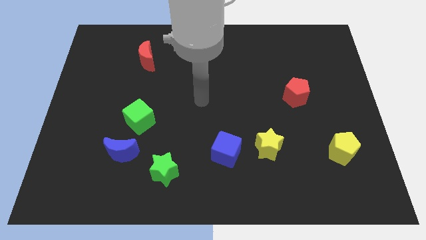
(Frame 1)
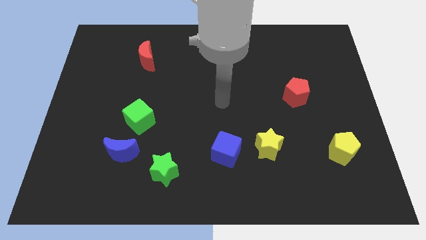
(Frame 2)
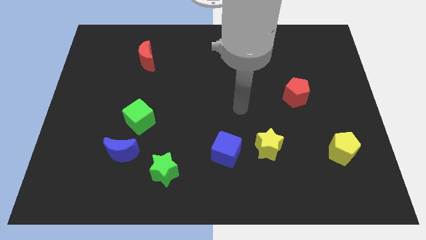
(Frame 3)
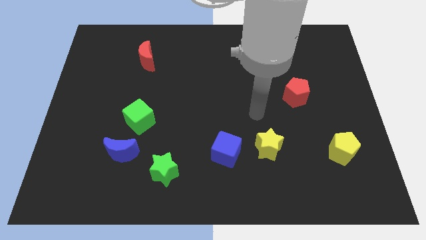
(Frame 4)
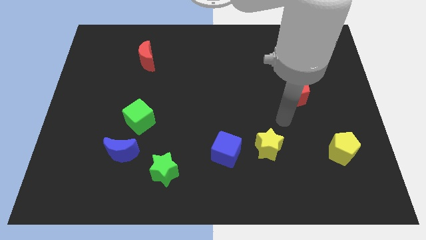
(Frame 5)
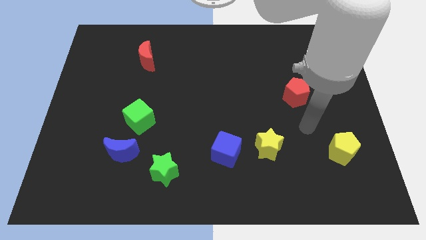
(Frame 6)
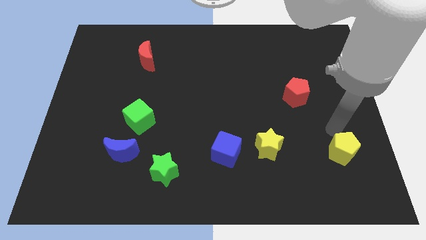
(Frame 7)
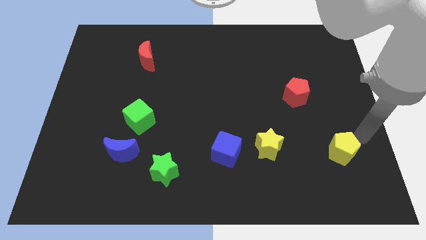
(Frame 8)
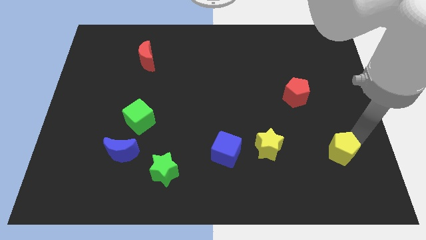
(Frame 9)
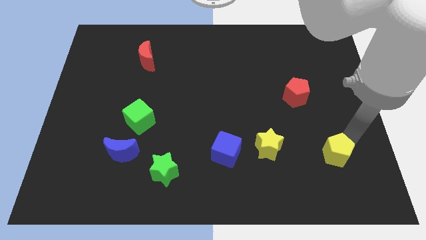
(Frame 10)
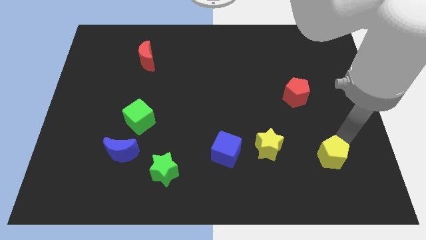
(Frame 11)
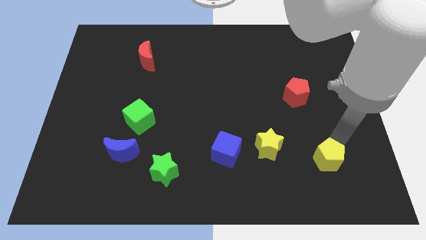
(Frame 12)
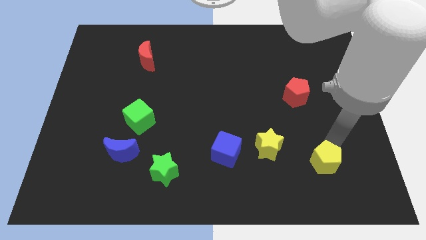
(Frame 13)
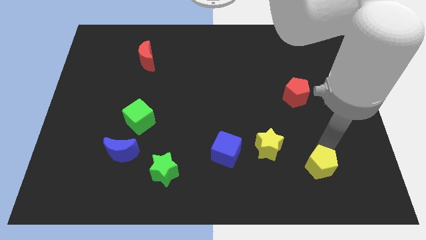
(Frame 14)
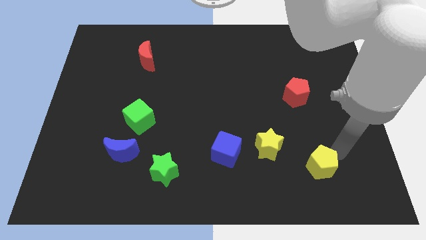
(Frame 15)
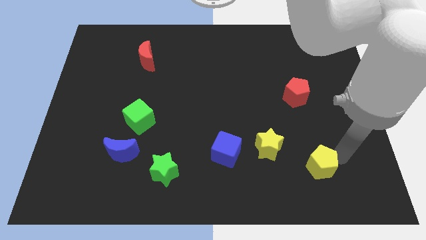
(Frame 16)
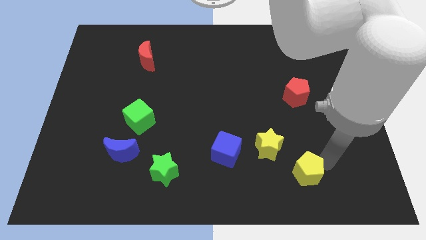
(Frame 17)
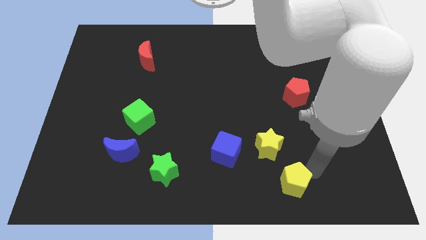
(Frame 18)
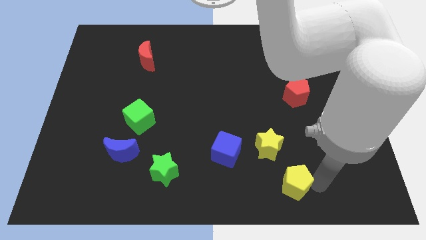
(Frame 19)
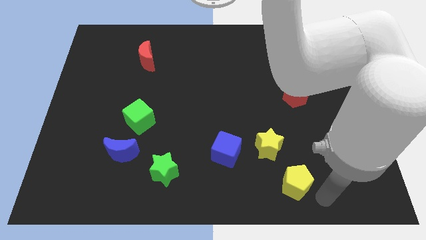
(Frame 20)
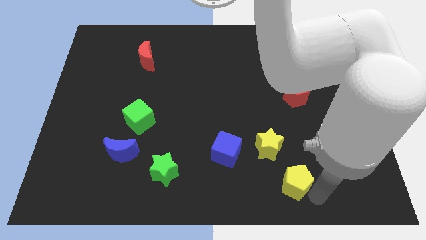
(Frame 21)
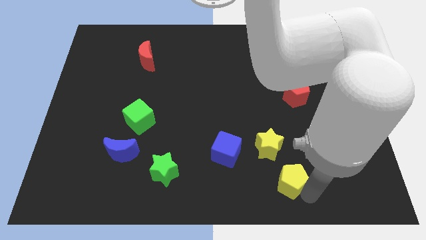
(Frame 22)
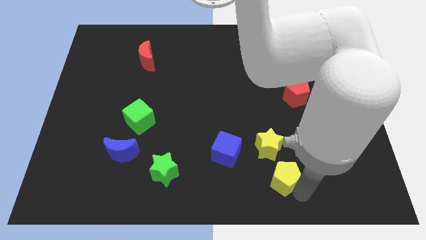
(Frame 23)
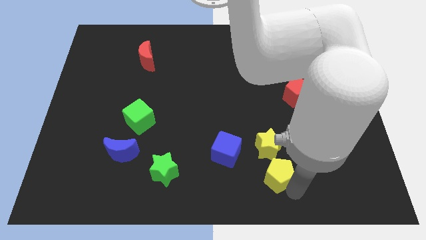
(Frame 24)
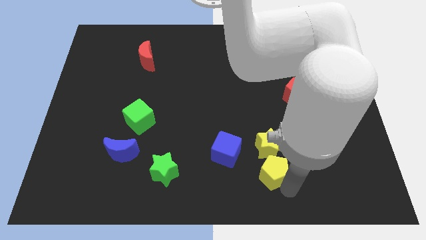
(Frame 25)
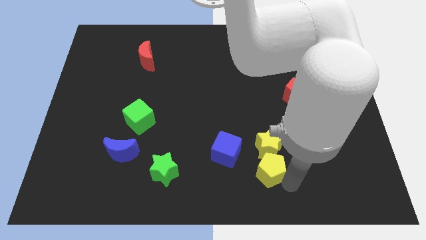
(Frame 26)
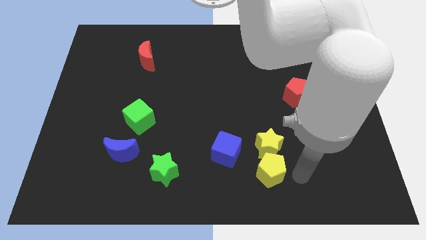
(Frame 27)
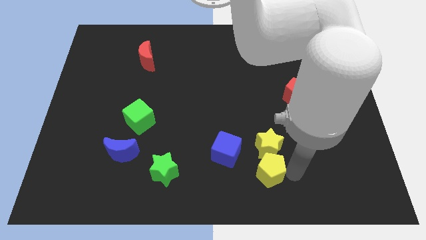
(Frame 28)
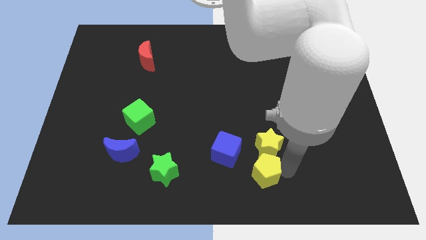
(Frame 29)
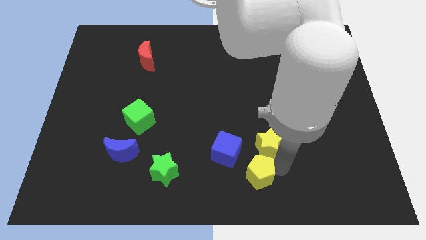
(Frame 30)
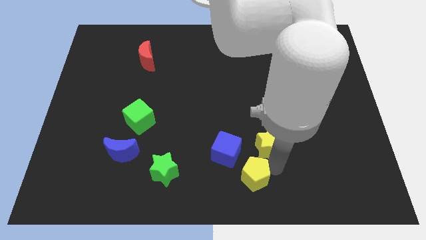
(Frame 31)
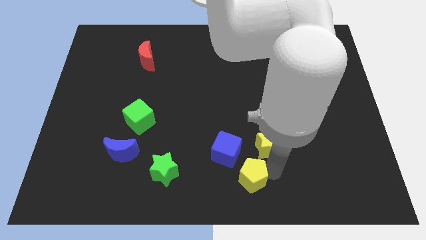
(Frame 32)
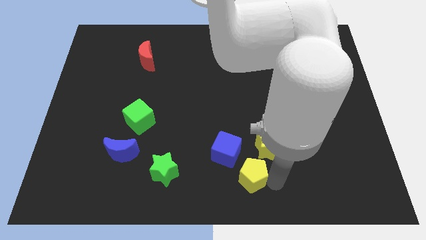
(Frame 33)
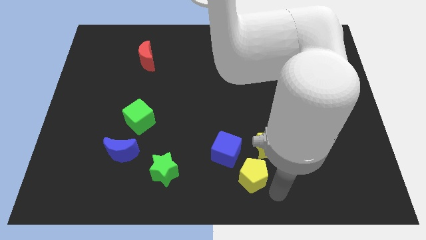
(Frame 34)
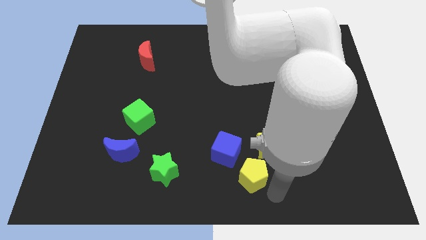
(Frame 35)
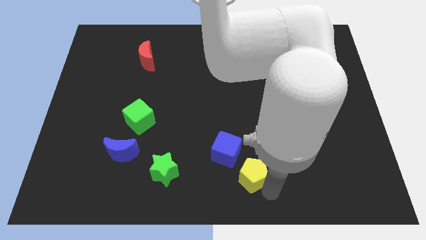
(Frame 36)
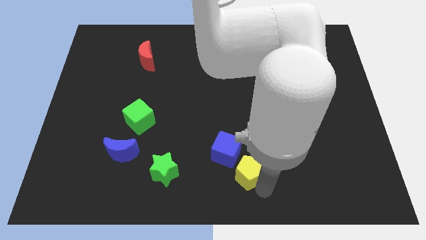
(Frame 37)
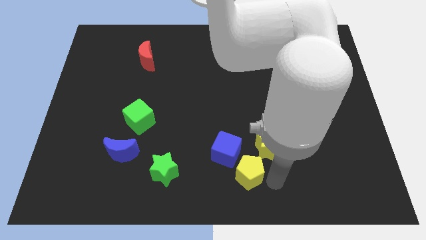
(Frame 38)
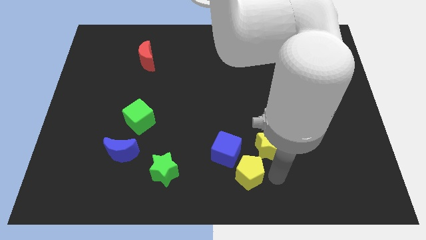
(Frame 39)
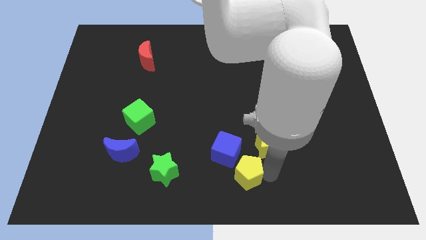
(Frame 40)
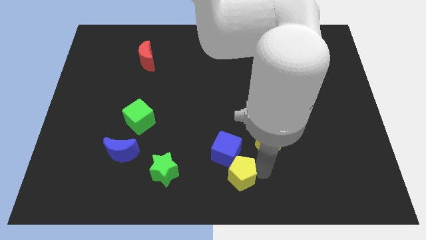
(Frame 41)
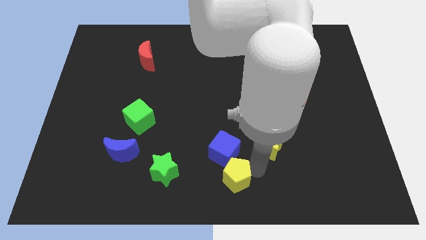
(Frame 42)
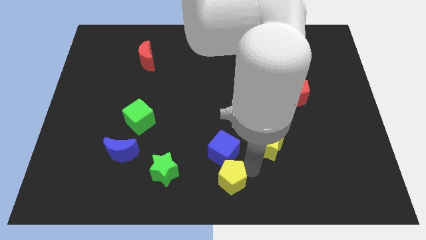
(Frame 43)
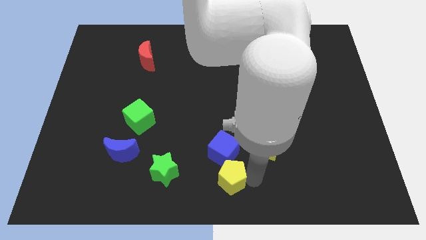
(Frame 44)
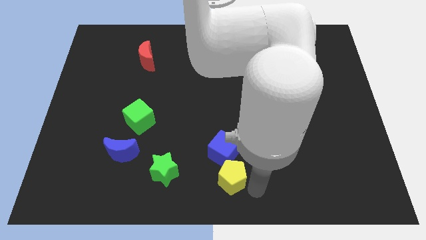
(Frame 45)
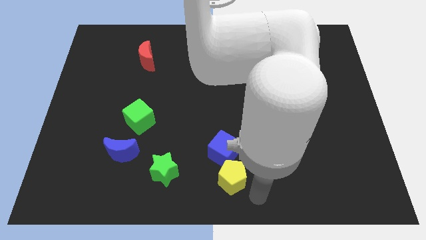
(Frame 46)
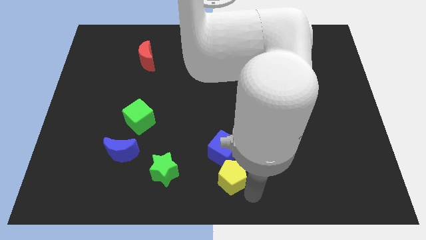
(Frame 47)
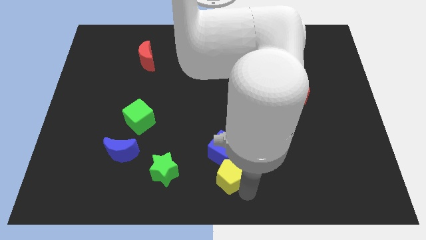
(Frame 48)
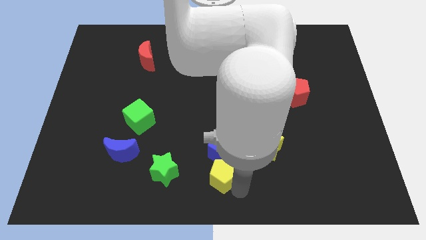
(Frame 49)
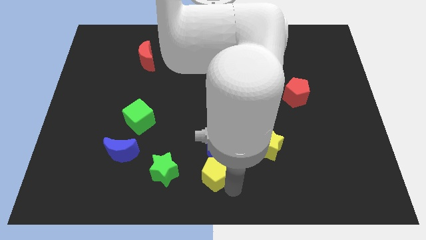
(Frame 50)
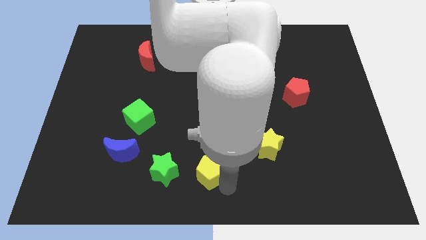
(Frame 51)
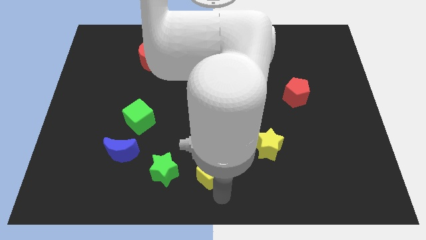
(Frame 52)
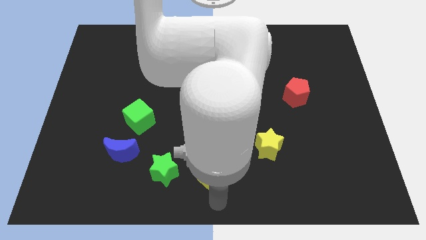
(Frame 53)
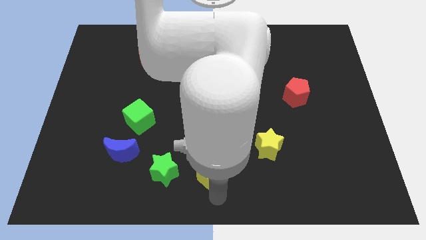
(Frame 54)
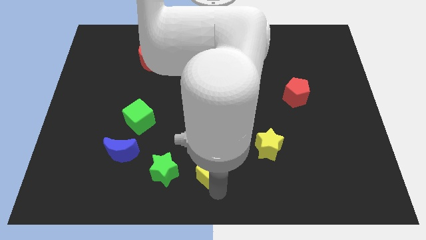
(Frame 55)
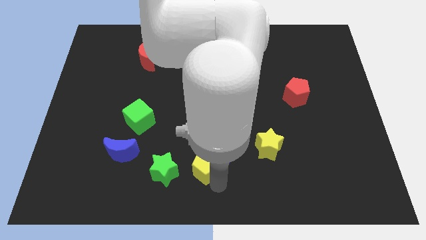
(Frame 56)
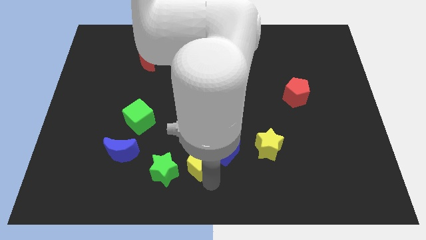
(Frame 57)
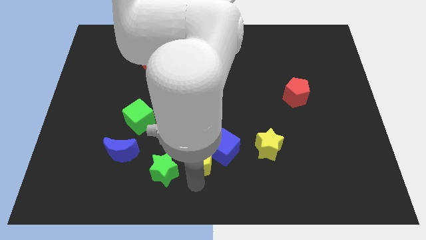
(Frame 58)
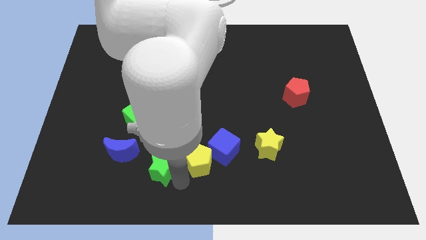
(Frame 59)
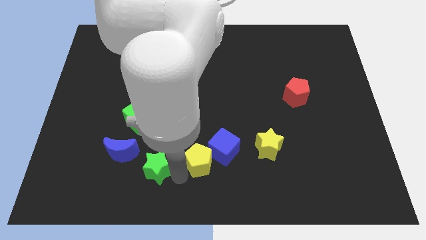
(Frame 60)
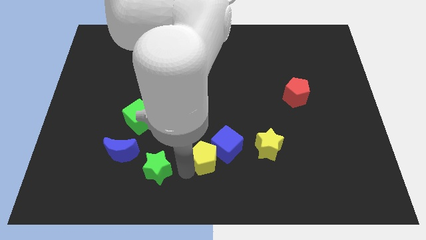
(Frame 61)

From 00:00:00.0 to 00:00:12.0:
slide the yellow pentagon left of the yellow star

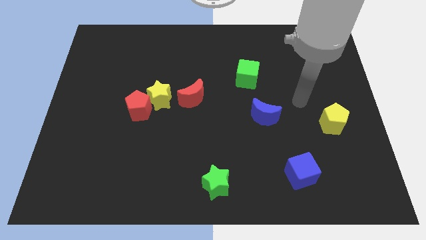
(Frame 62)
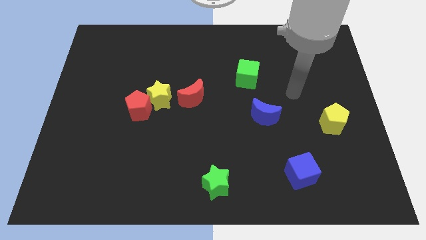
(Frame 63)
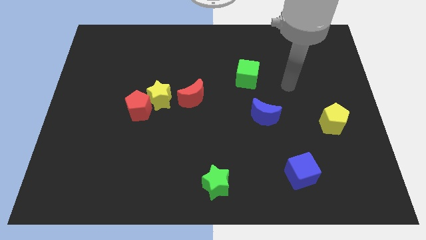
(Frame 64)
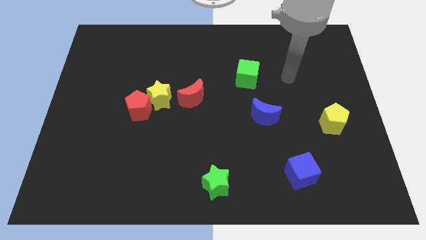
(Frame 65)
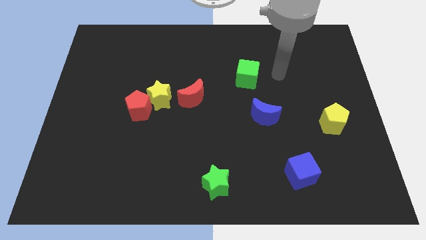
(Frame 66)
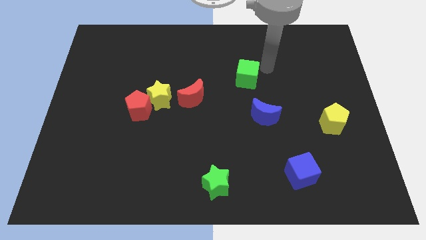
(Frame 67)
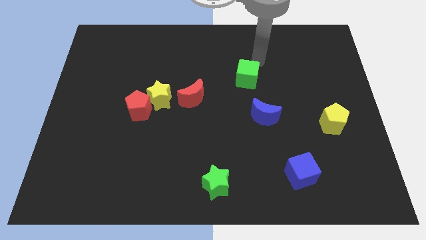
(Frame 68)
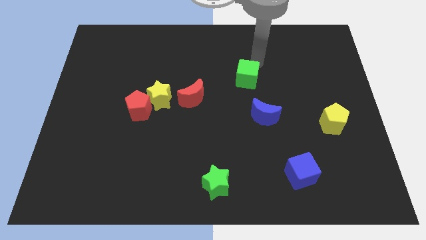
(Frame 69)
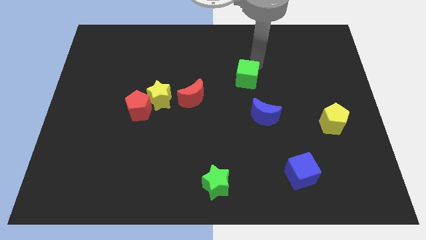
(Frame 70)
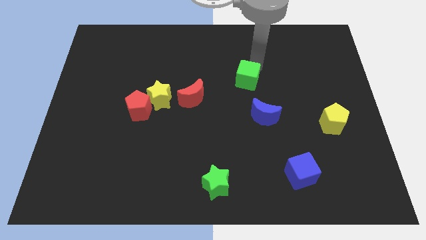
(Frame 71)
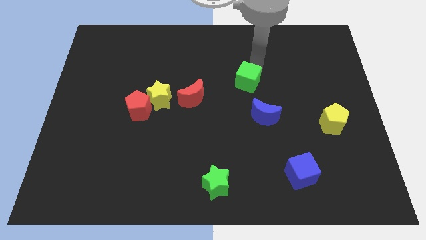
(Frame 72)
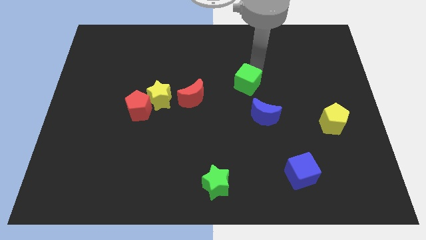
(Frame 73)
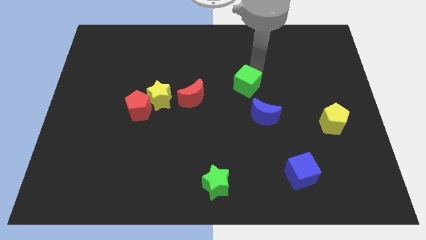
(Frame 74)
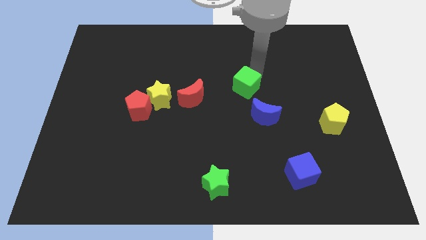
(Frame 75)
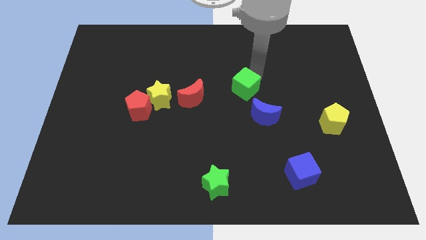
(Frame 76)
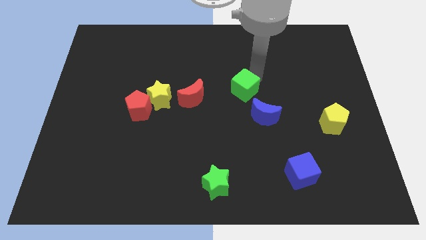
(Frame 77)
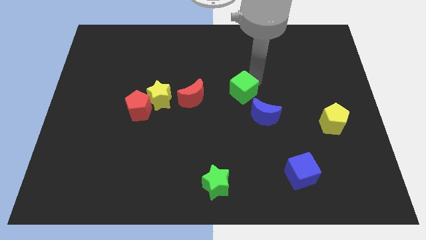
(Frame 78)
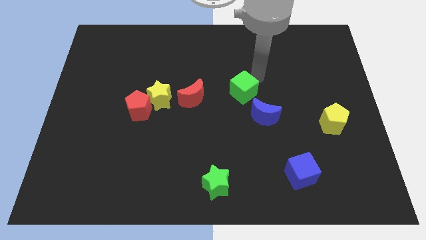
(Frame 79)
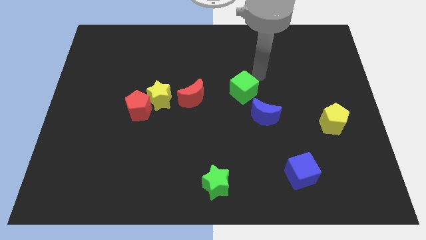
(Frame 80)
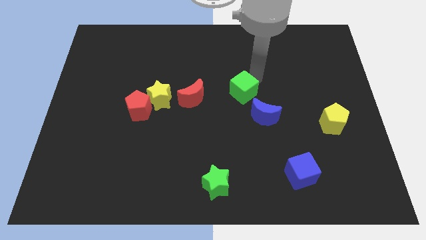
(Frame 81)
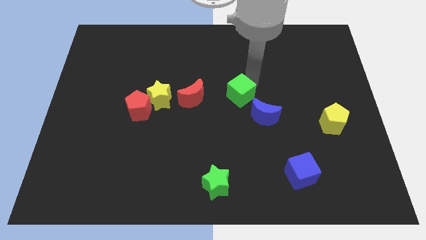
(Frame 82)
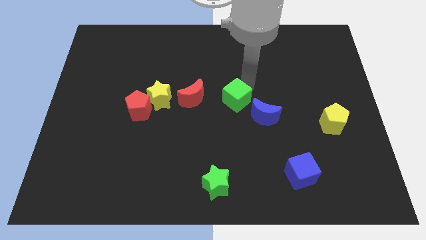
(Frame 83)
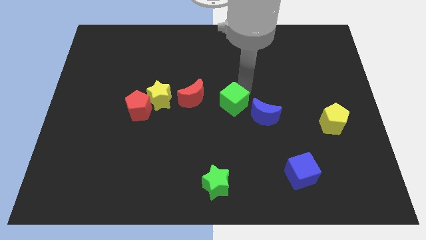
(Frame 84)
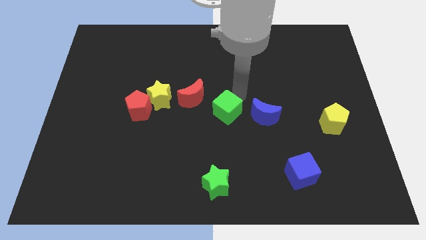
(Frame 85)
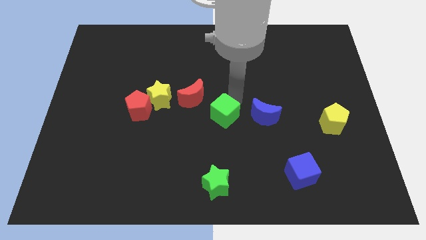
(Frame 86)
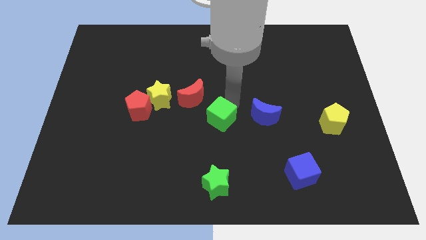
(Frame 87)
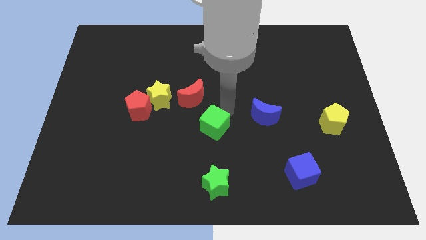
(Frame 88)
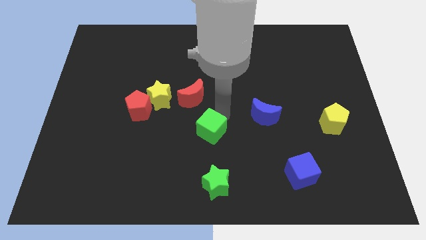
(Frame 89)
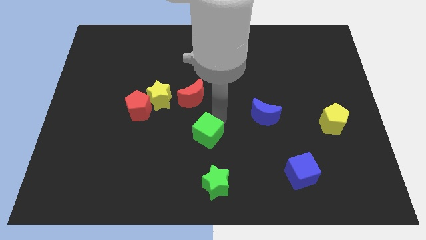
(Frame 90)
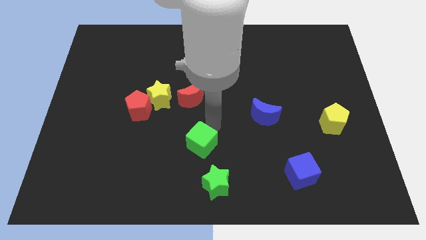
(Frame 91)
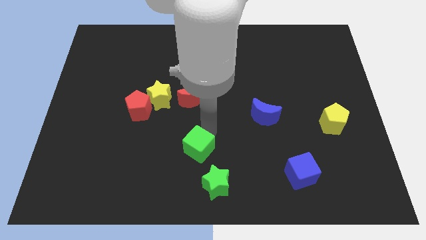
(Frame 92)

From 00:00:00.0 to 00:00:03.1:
move the green cube to the top left side of the green star
